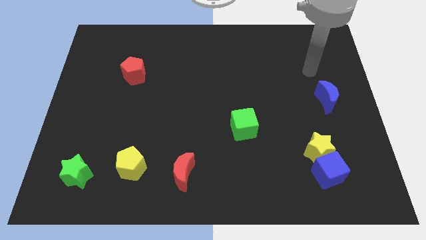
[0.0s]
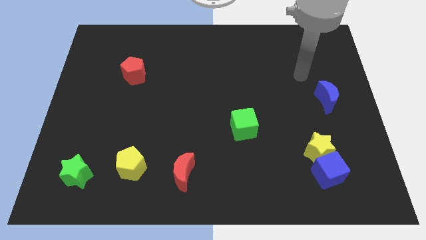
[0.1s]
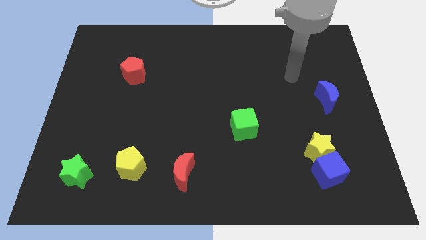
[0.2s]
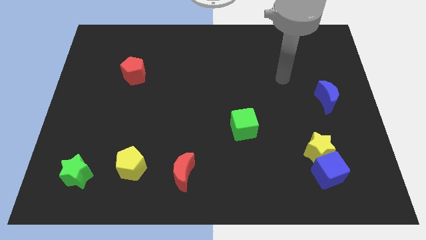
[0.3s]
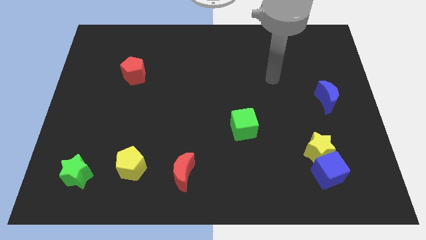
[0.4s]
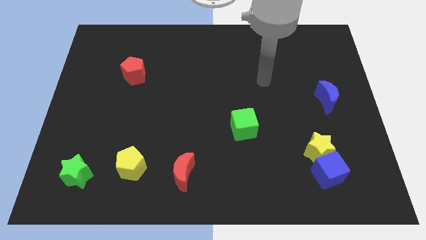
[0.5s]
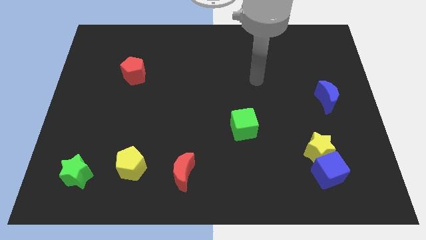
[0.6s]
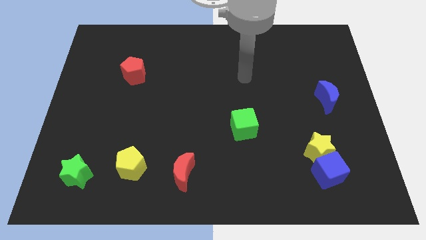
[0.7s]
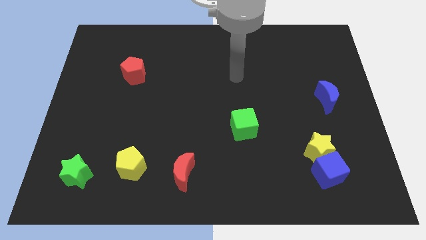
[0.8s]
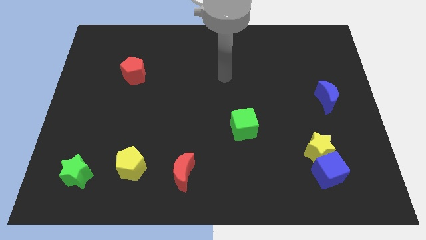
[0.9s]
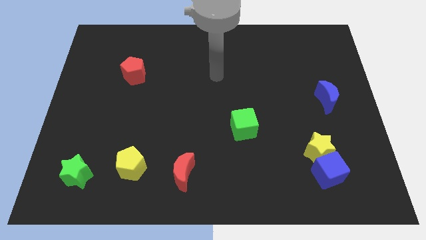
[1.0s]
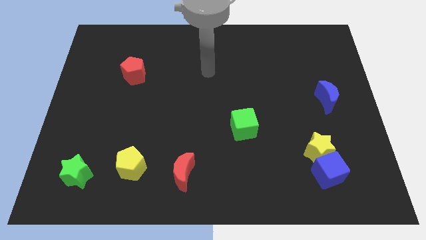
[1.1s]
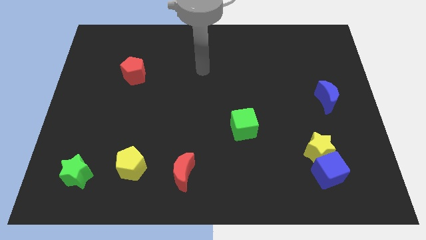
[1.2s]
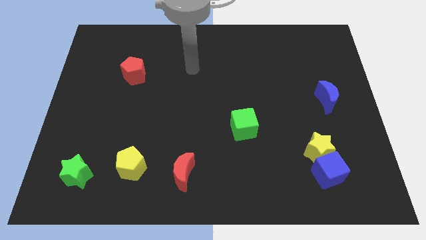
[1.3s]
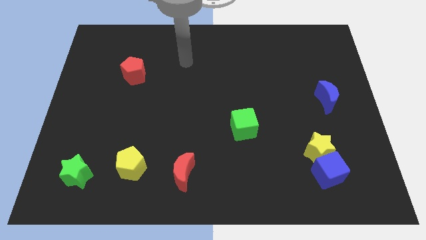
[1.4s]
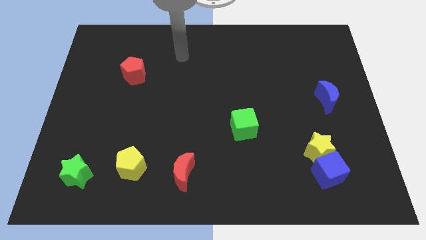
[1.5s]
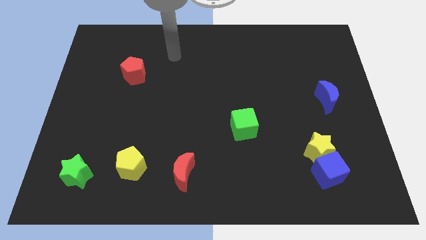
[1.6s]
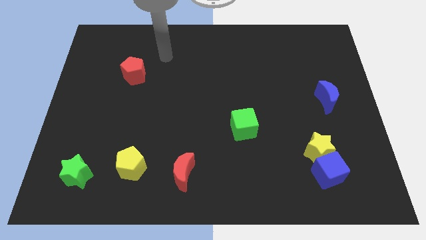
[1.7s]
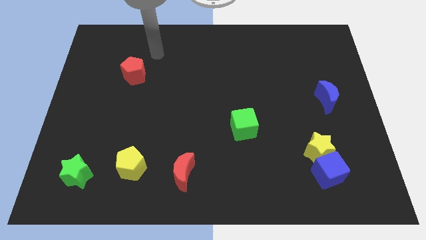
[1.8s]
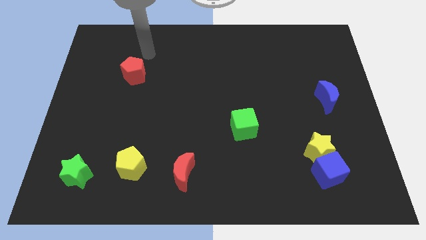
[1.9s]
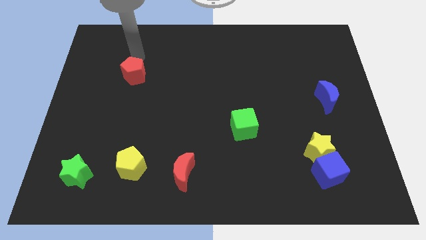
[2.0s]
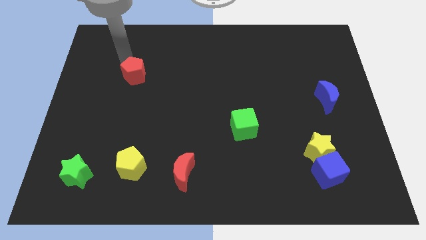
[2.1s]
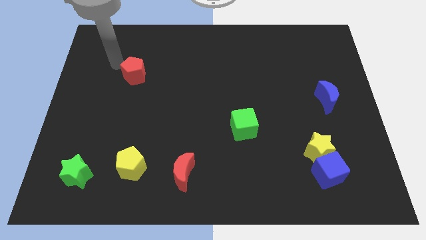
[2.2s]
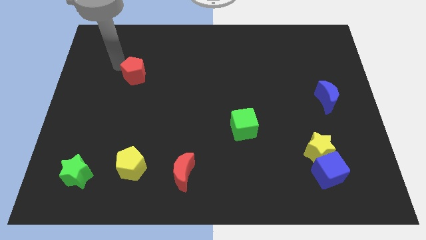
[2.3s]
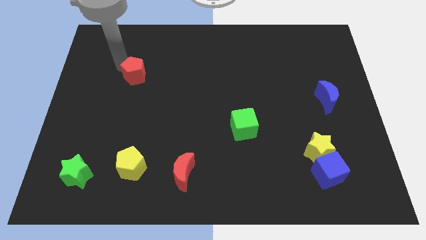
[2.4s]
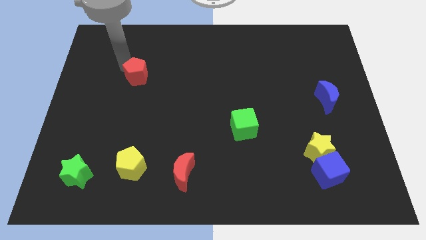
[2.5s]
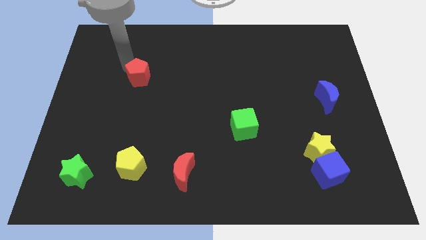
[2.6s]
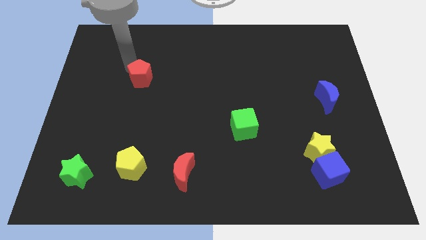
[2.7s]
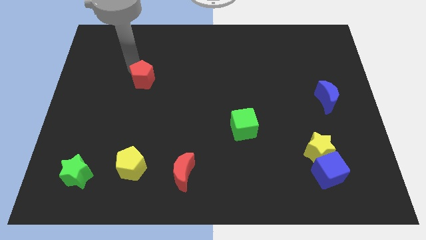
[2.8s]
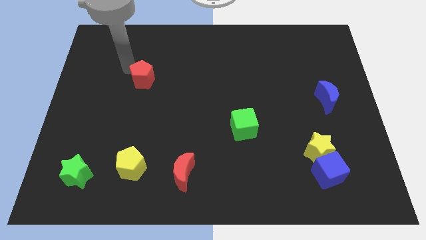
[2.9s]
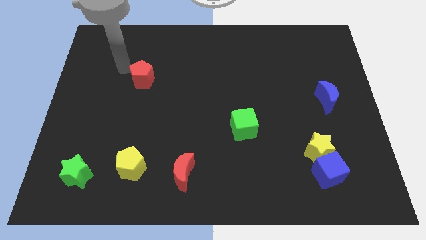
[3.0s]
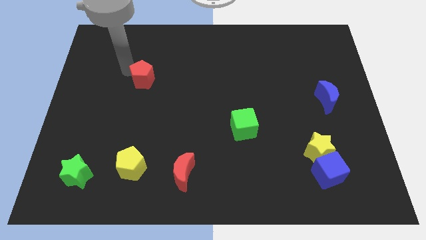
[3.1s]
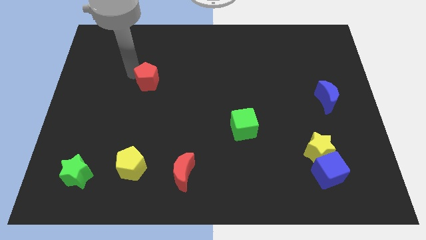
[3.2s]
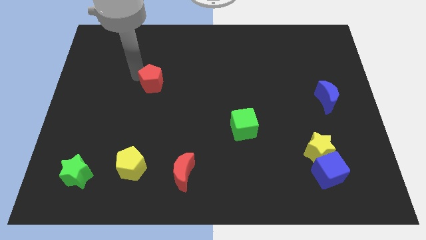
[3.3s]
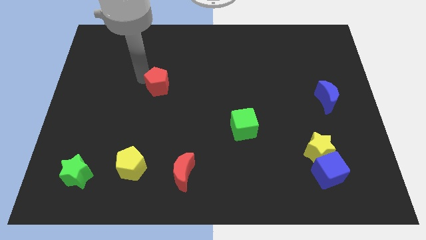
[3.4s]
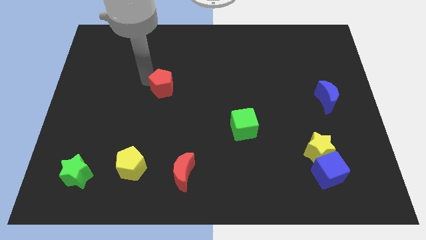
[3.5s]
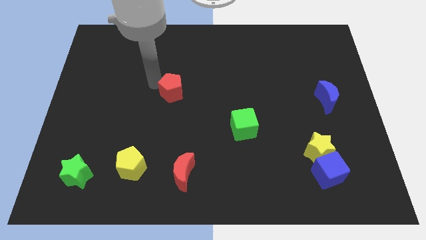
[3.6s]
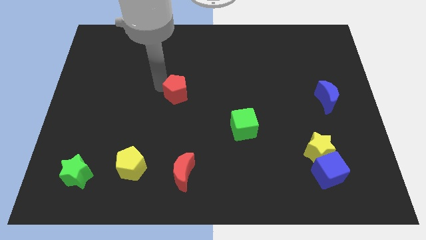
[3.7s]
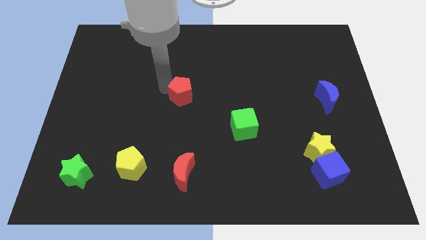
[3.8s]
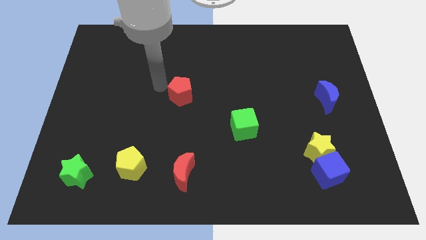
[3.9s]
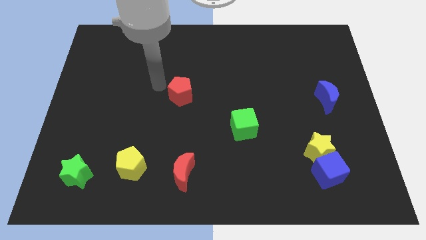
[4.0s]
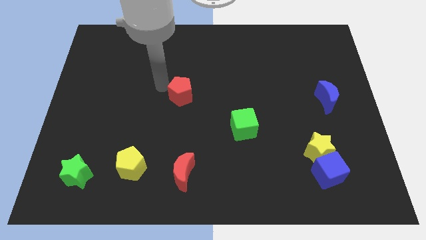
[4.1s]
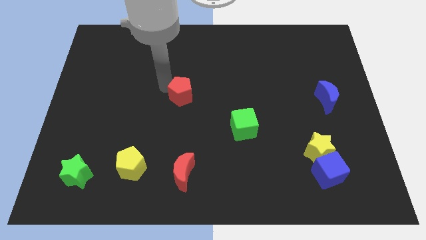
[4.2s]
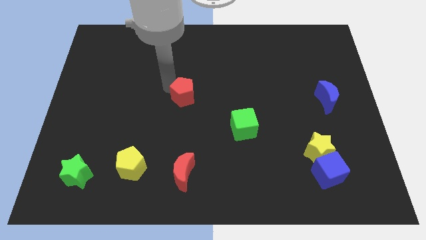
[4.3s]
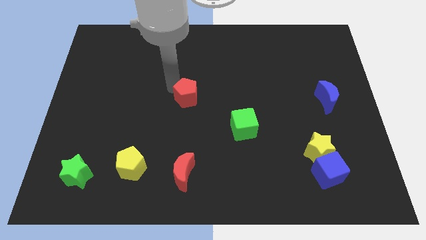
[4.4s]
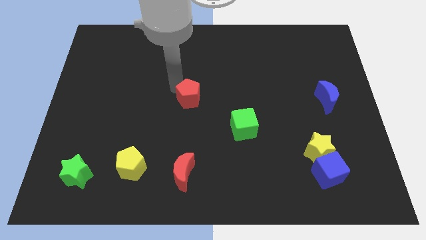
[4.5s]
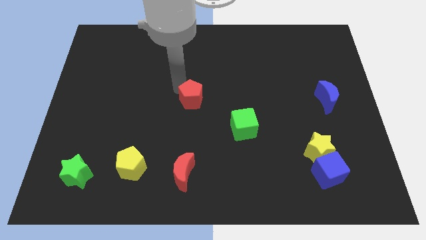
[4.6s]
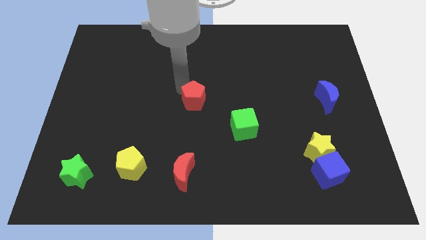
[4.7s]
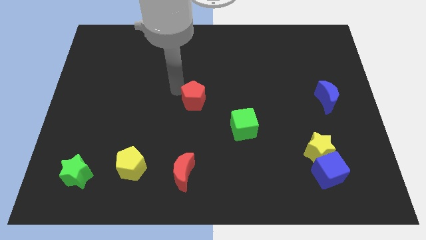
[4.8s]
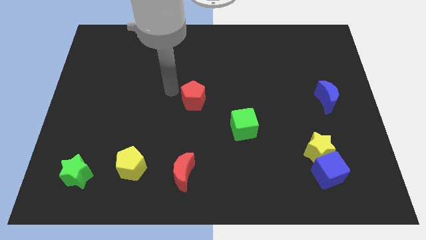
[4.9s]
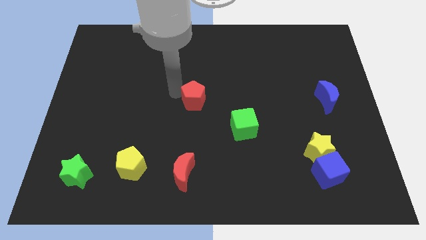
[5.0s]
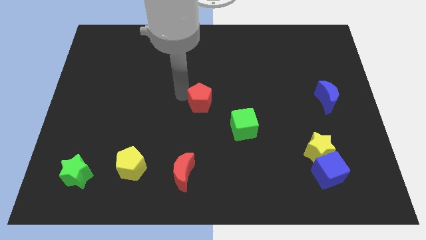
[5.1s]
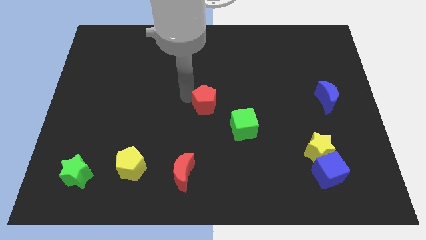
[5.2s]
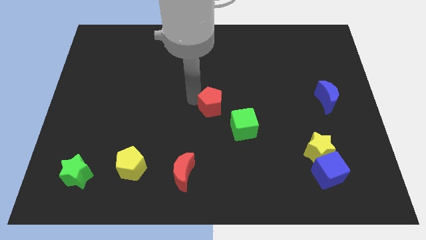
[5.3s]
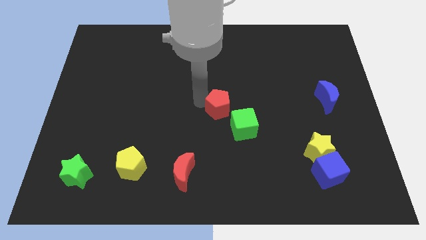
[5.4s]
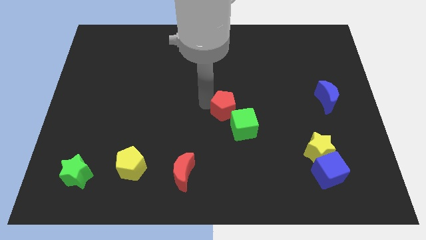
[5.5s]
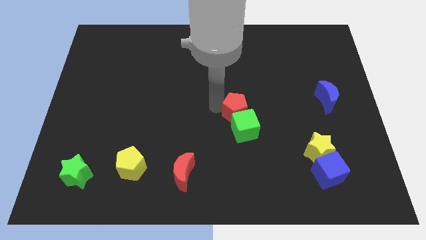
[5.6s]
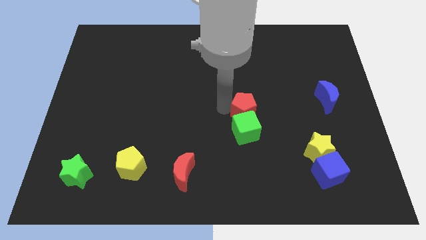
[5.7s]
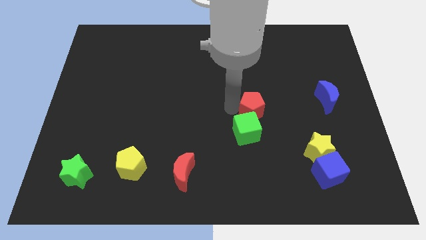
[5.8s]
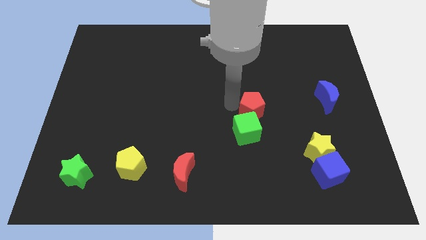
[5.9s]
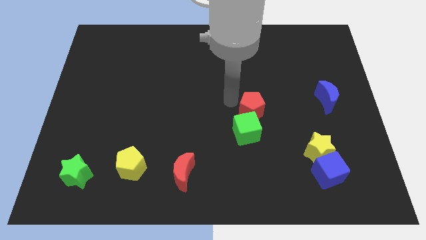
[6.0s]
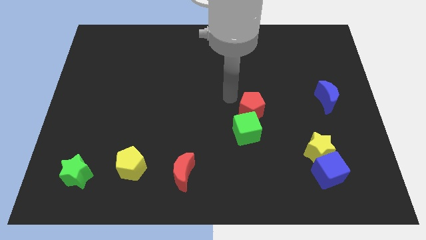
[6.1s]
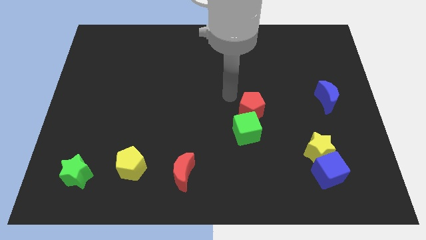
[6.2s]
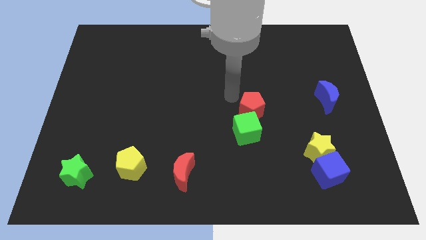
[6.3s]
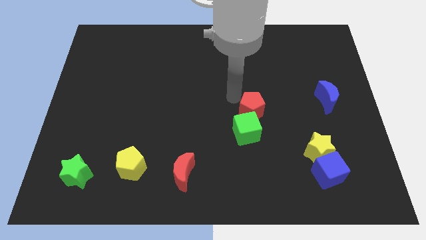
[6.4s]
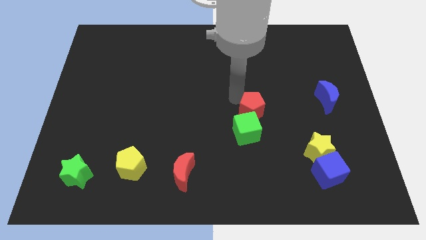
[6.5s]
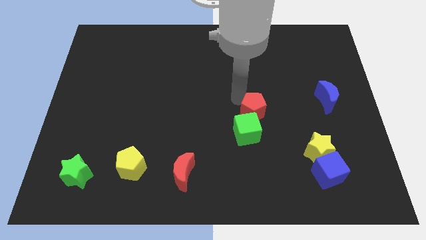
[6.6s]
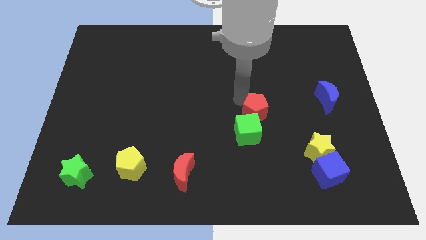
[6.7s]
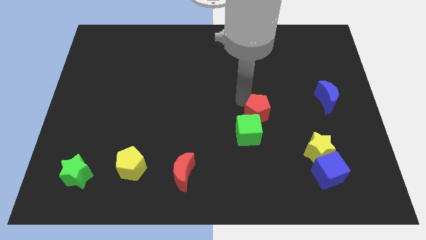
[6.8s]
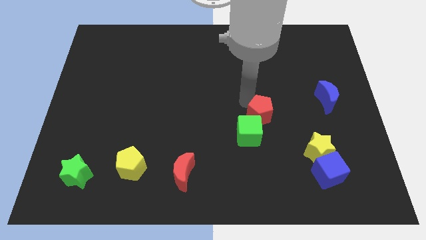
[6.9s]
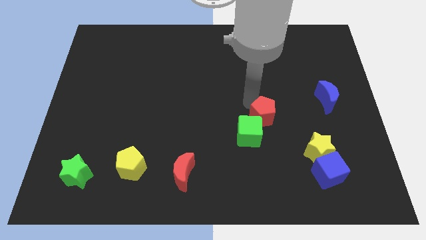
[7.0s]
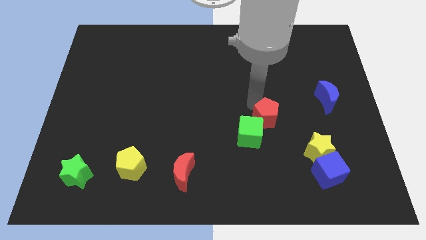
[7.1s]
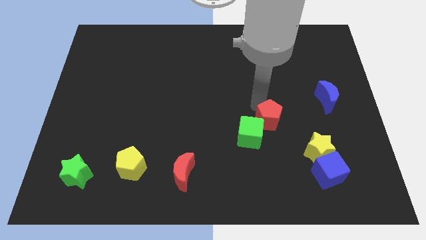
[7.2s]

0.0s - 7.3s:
slide the red pentagon to the right of the green cube
